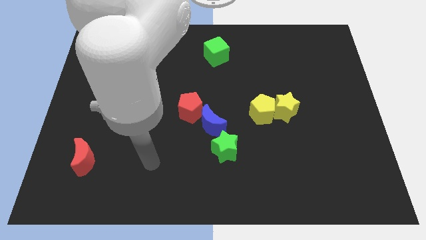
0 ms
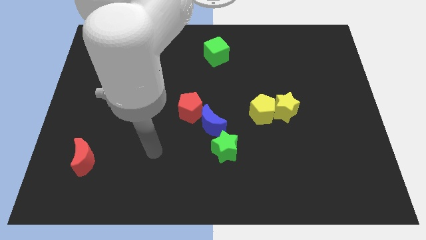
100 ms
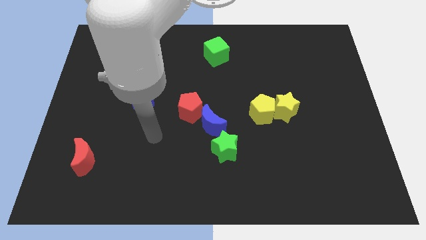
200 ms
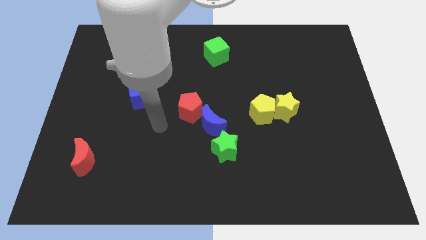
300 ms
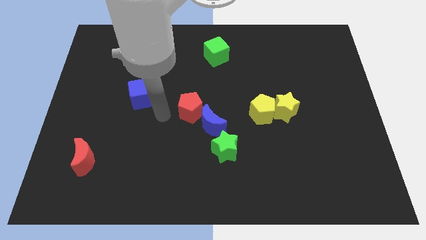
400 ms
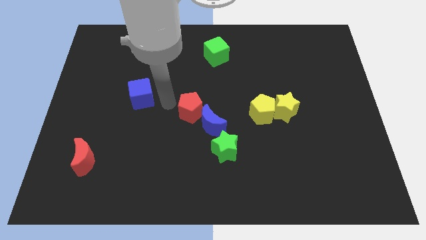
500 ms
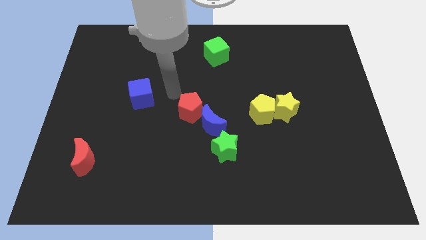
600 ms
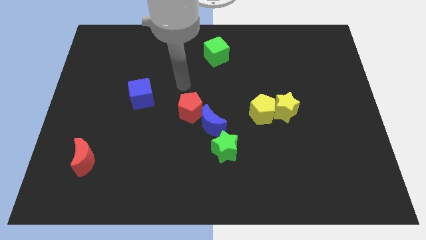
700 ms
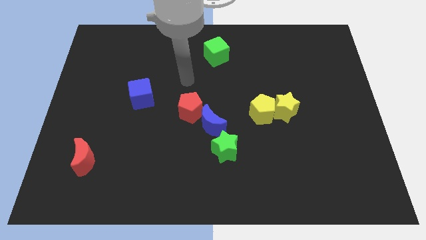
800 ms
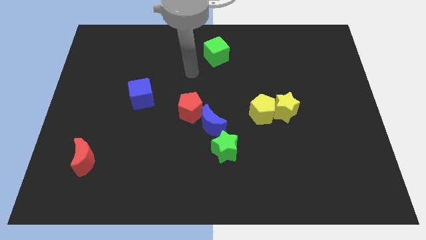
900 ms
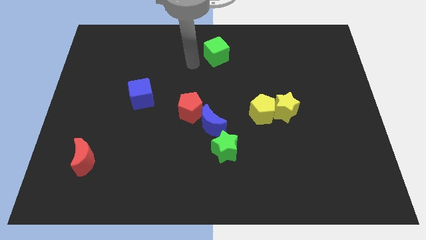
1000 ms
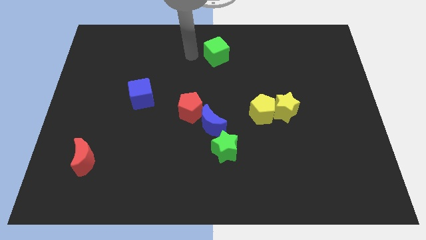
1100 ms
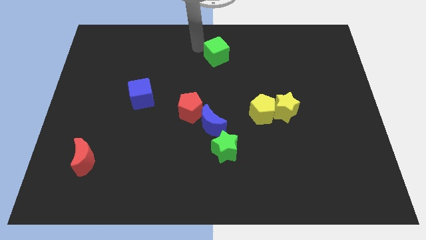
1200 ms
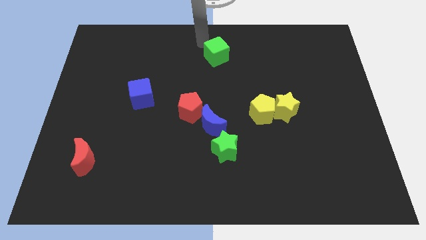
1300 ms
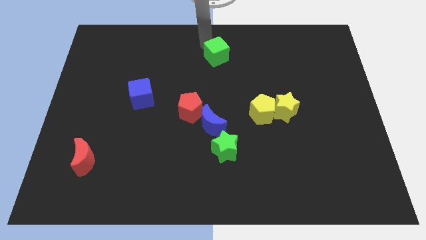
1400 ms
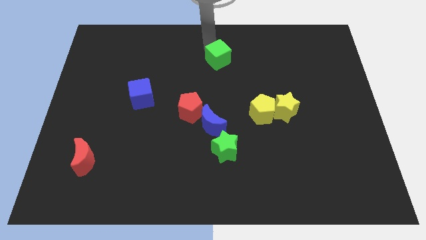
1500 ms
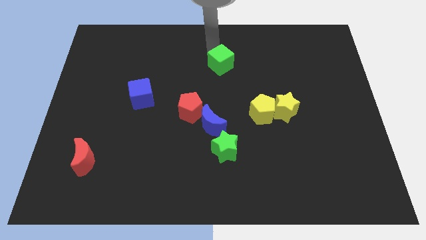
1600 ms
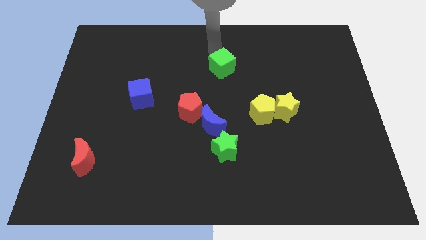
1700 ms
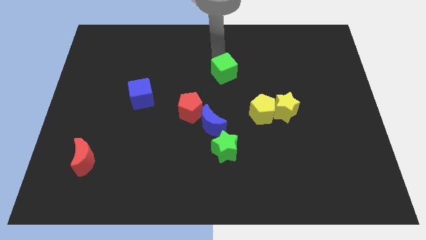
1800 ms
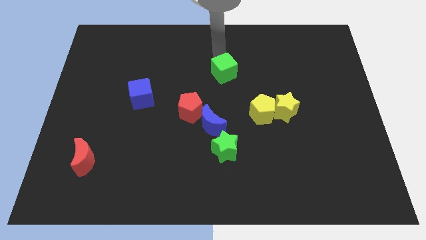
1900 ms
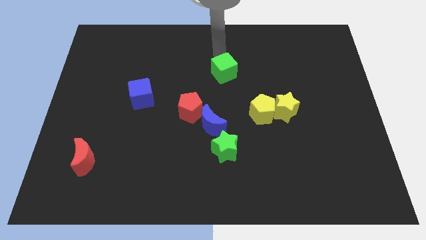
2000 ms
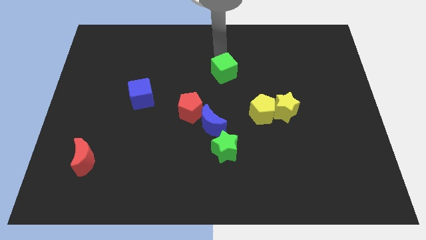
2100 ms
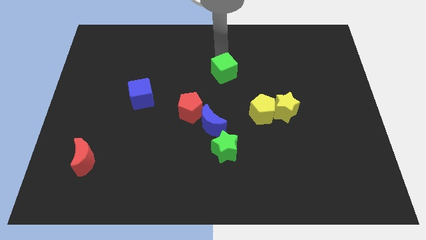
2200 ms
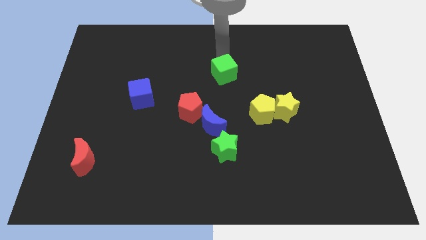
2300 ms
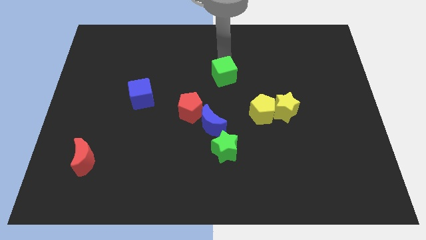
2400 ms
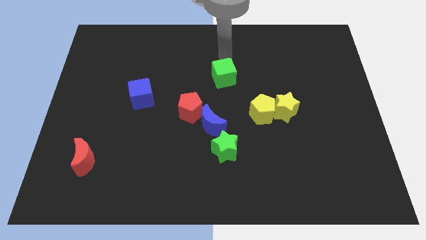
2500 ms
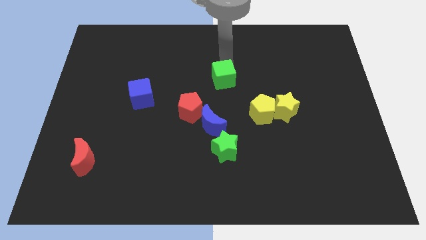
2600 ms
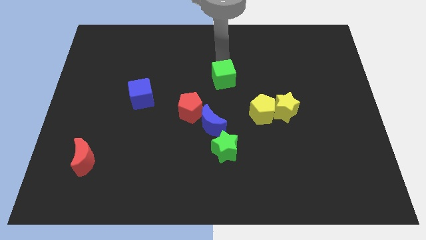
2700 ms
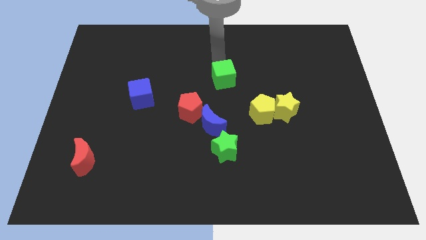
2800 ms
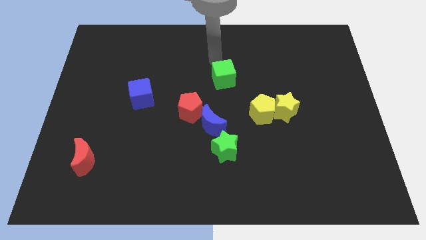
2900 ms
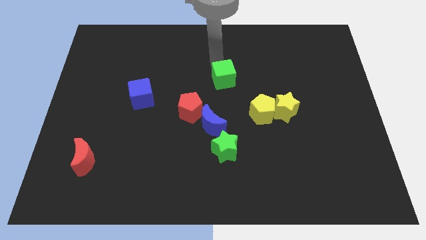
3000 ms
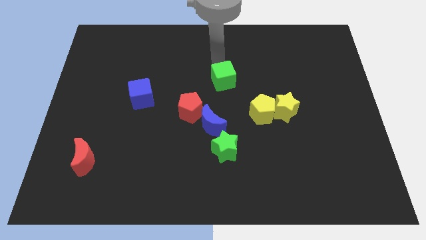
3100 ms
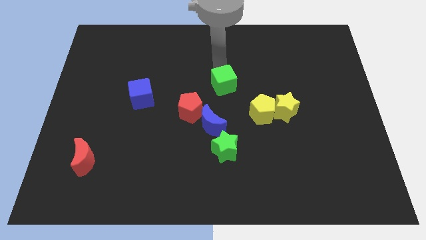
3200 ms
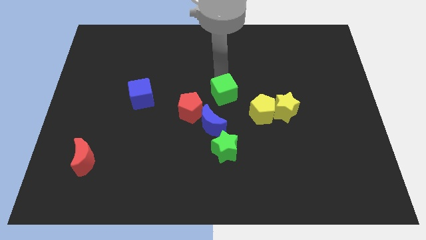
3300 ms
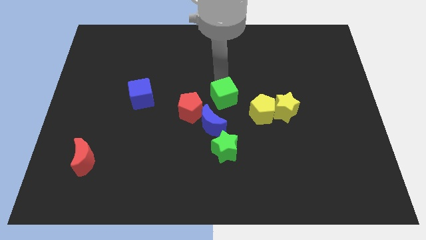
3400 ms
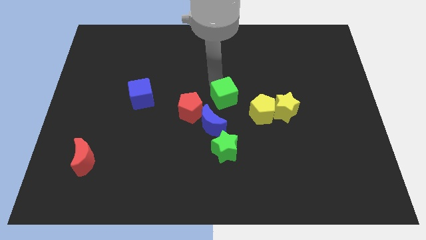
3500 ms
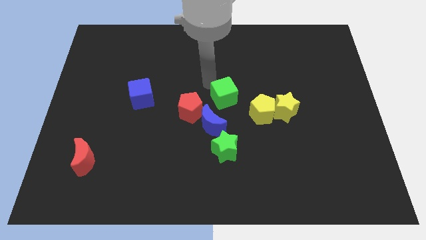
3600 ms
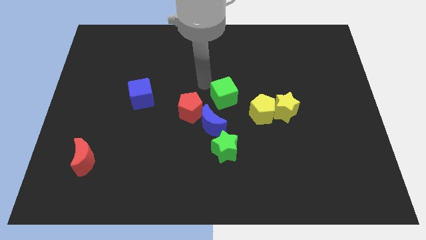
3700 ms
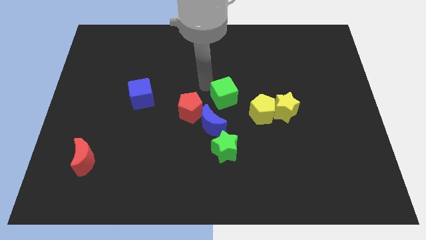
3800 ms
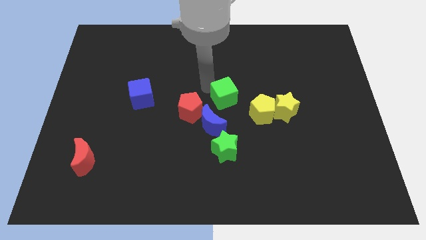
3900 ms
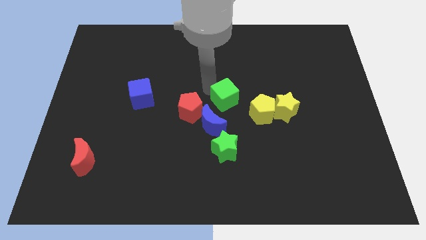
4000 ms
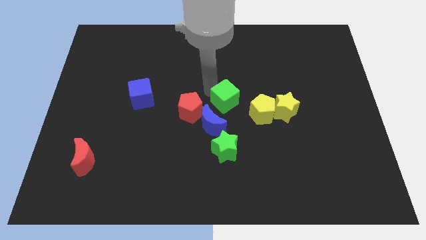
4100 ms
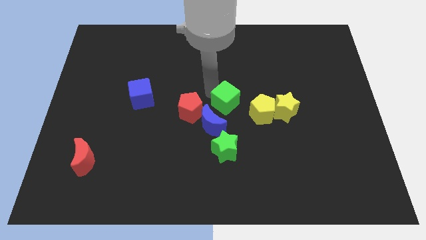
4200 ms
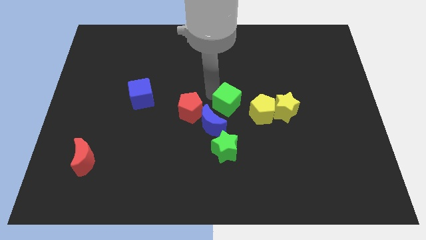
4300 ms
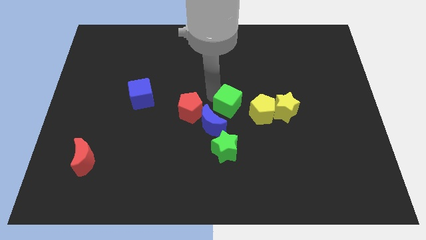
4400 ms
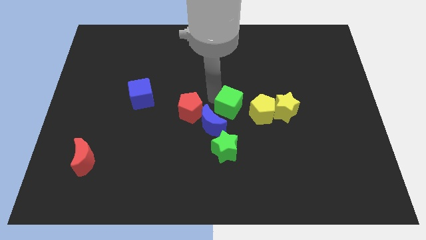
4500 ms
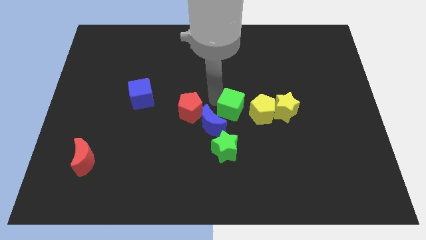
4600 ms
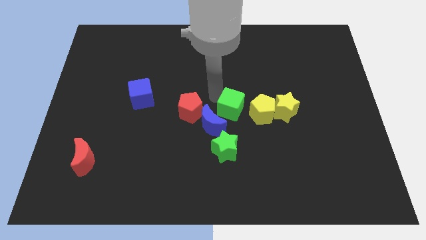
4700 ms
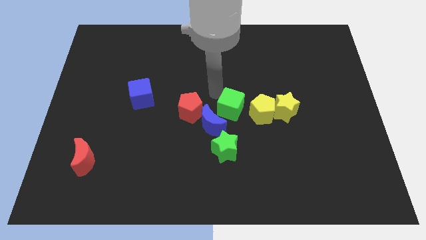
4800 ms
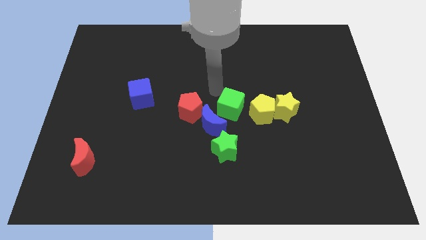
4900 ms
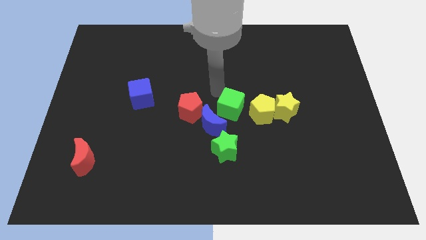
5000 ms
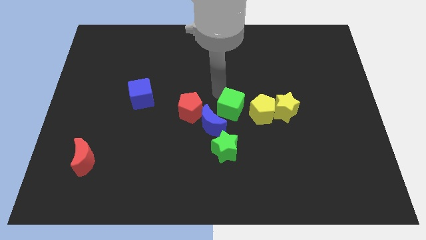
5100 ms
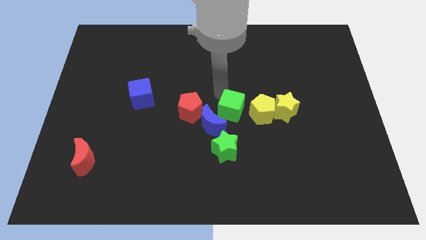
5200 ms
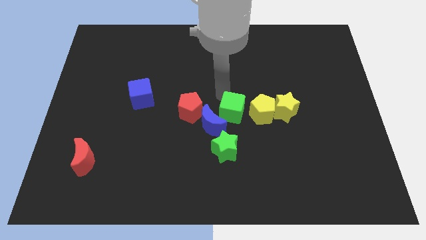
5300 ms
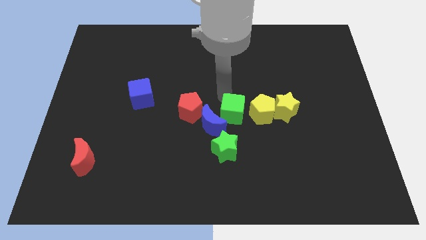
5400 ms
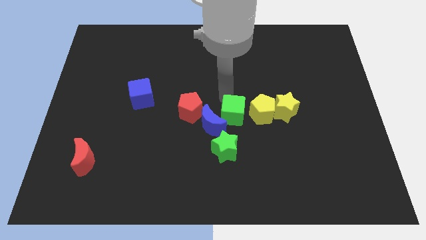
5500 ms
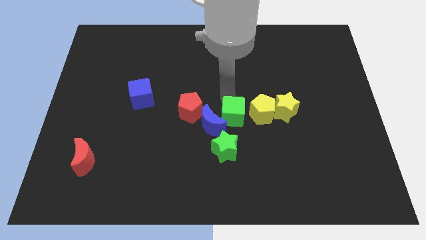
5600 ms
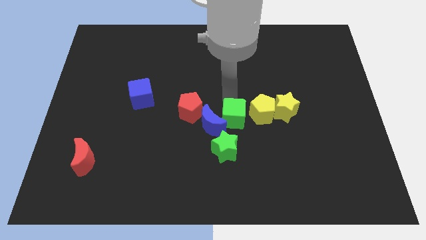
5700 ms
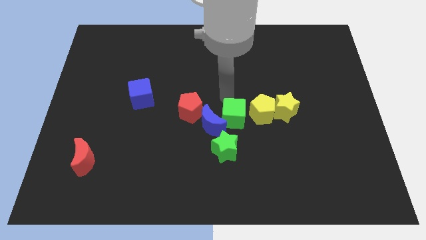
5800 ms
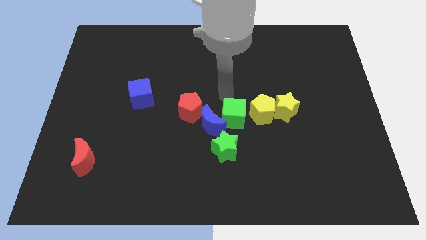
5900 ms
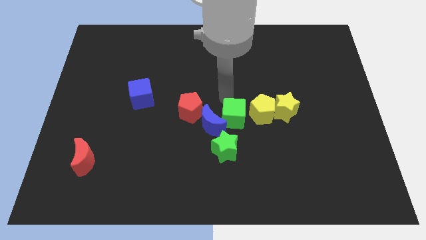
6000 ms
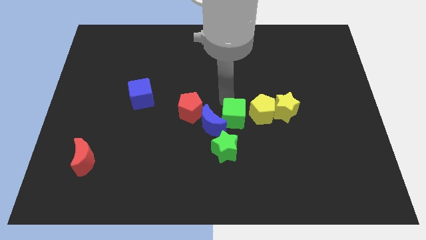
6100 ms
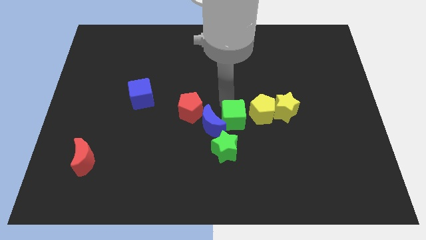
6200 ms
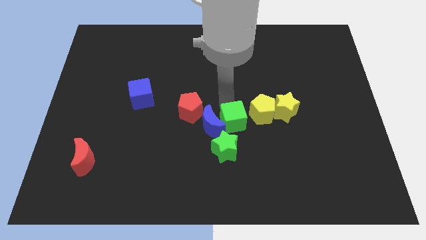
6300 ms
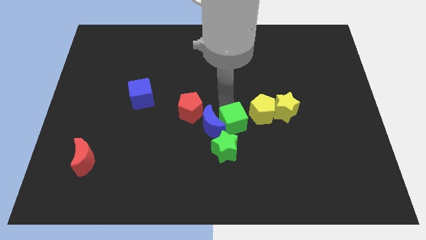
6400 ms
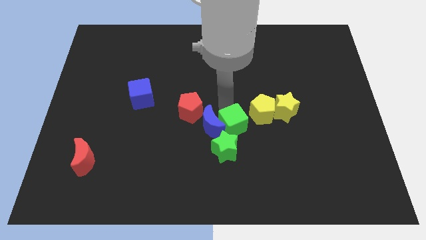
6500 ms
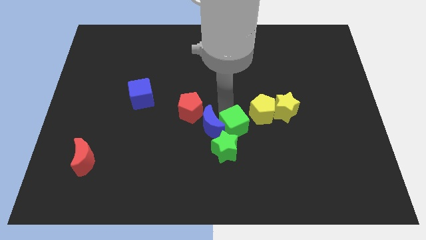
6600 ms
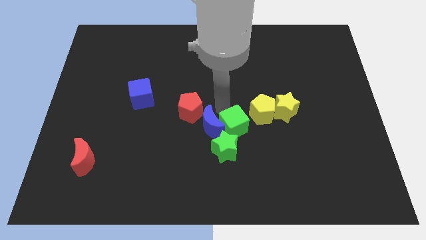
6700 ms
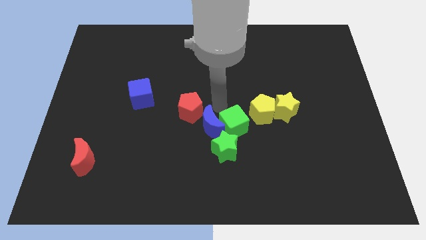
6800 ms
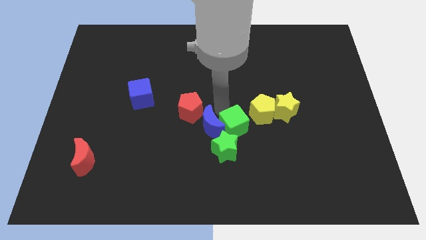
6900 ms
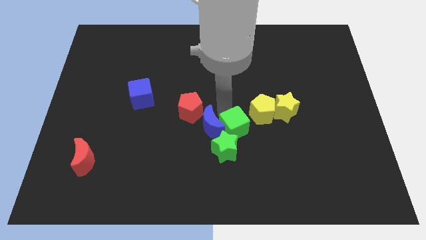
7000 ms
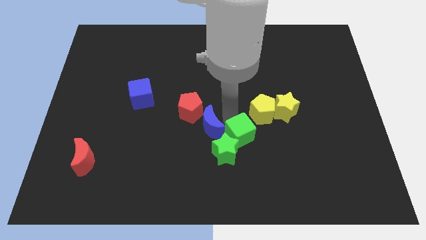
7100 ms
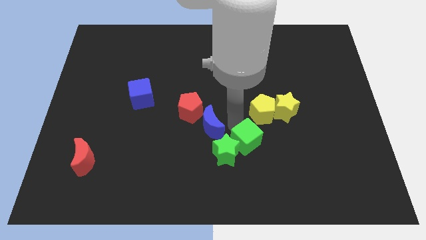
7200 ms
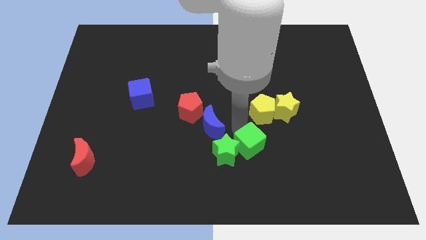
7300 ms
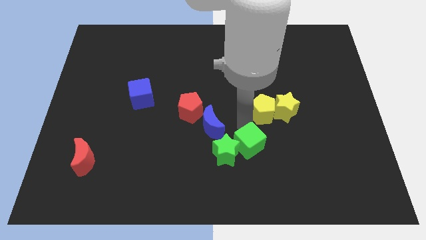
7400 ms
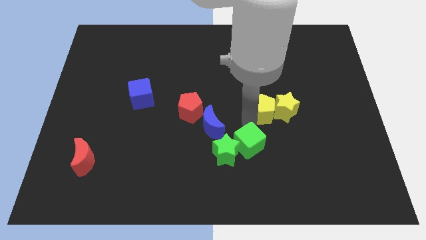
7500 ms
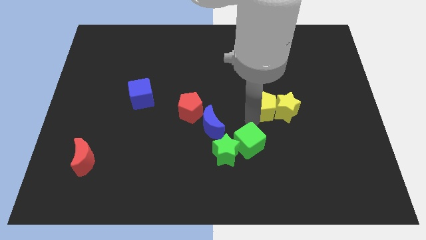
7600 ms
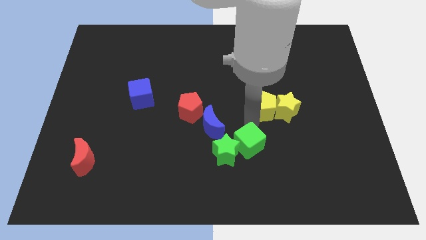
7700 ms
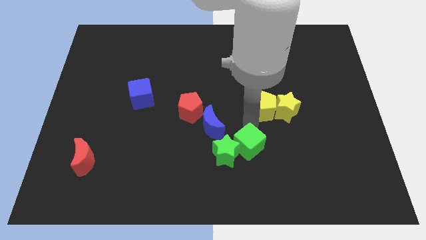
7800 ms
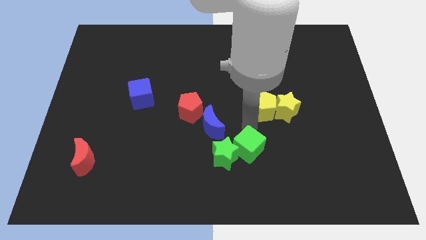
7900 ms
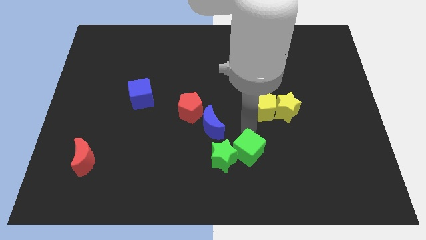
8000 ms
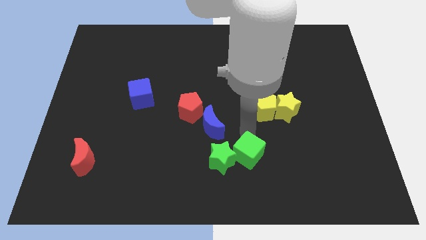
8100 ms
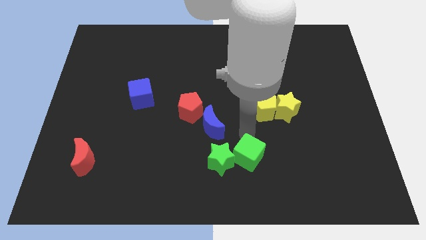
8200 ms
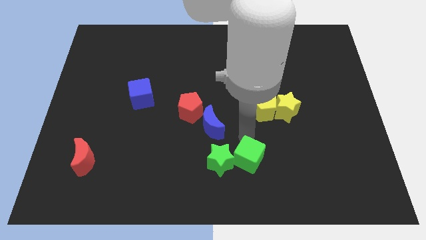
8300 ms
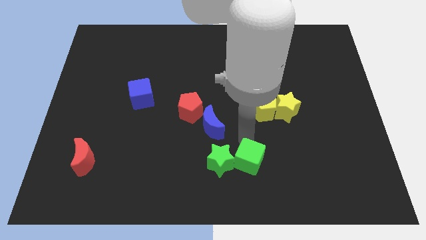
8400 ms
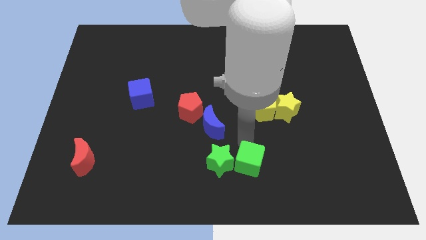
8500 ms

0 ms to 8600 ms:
put the green cube to the bottom
